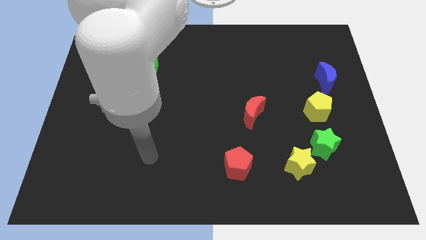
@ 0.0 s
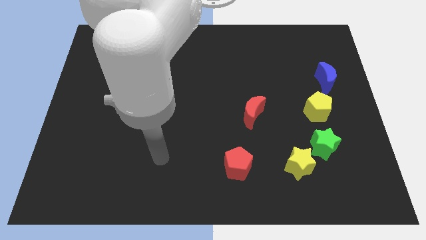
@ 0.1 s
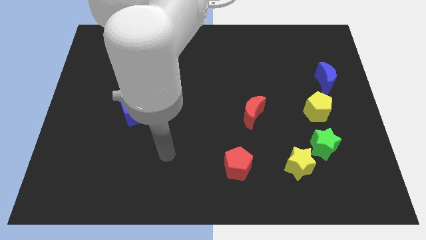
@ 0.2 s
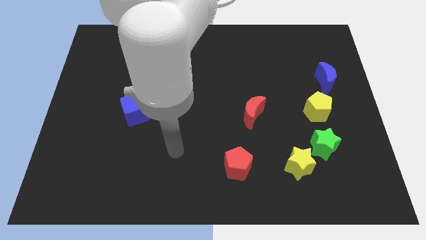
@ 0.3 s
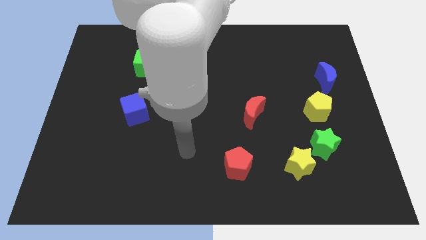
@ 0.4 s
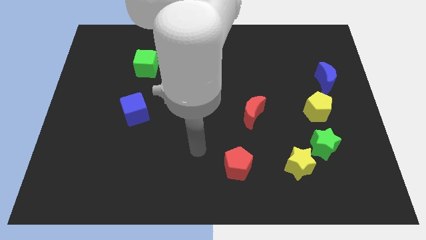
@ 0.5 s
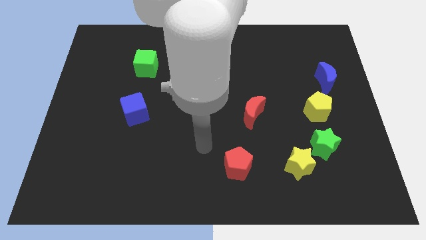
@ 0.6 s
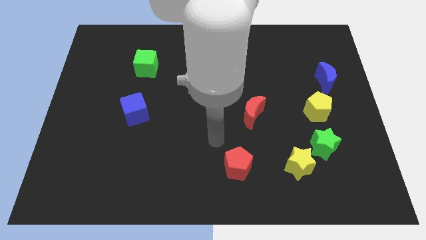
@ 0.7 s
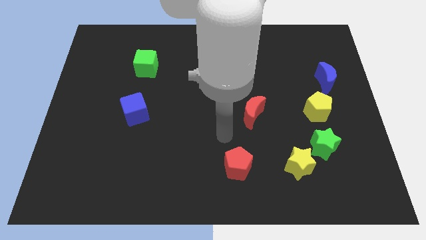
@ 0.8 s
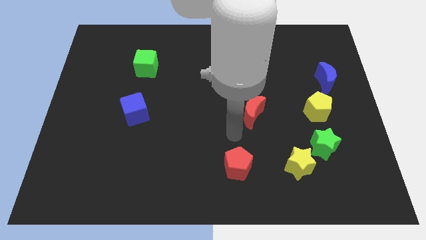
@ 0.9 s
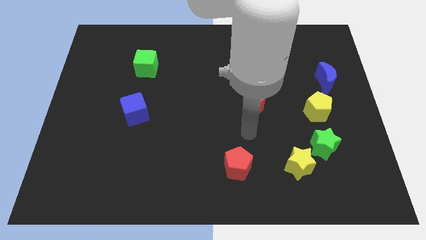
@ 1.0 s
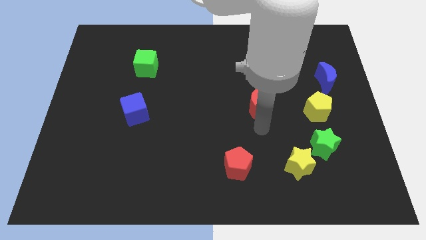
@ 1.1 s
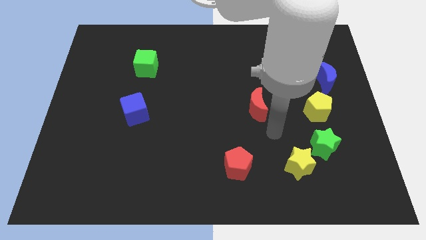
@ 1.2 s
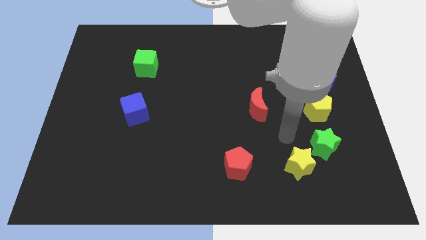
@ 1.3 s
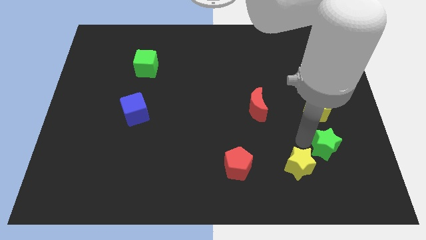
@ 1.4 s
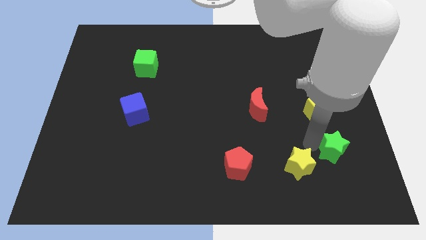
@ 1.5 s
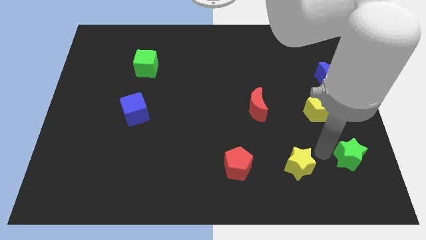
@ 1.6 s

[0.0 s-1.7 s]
move the yellow star away from the green star

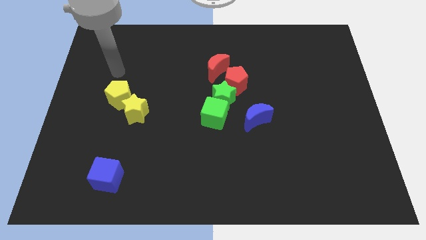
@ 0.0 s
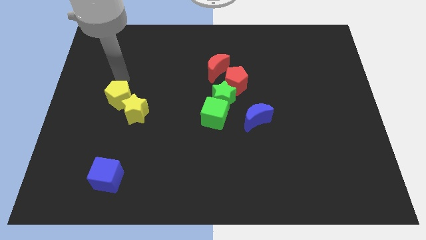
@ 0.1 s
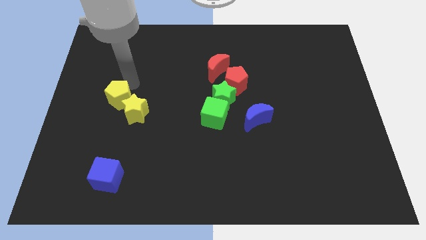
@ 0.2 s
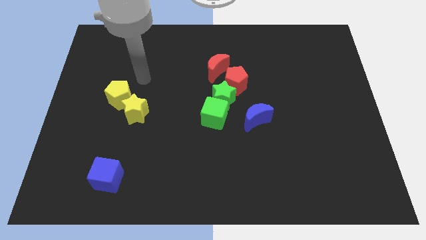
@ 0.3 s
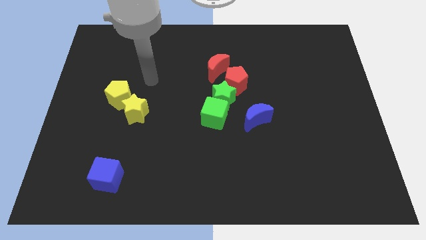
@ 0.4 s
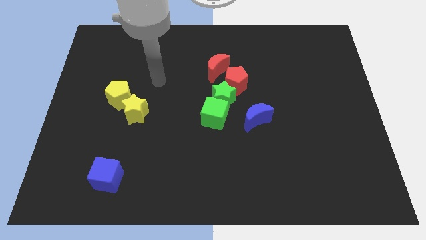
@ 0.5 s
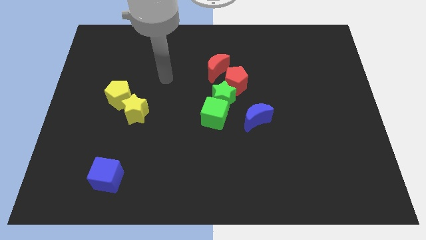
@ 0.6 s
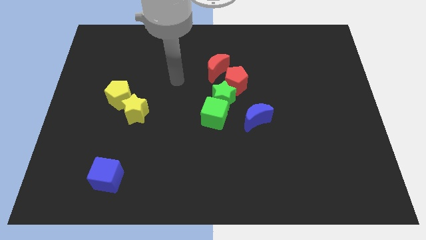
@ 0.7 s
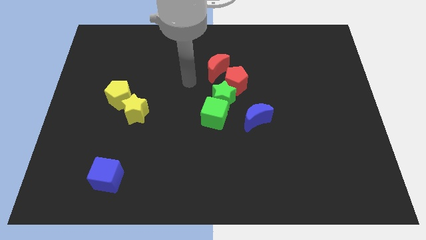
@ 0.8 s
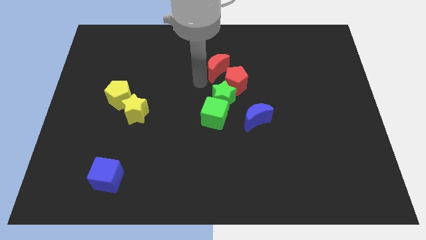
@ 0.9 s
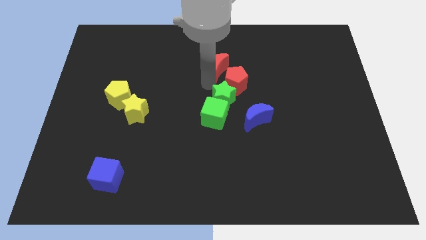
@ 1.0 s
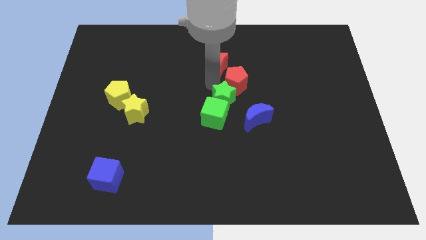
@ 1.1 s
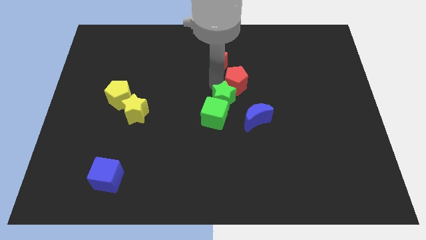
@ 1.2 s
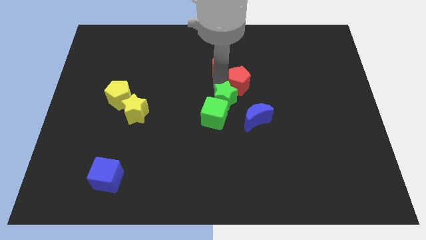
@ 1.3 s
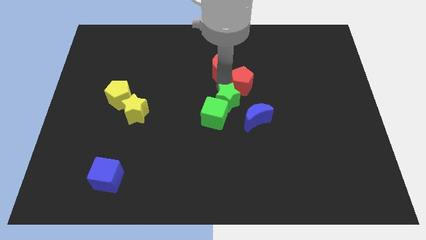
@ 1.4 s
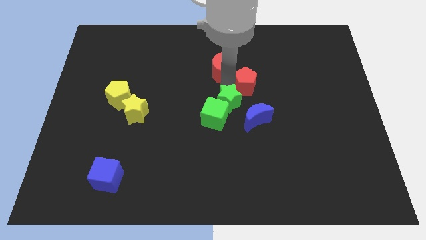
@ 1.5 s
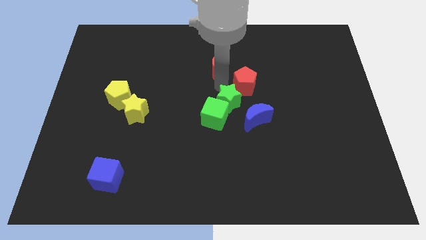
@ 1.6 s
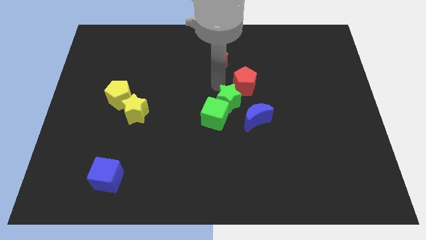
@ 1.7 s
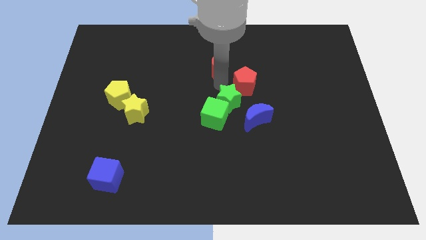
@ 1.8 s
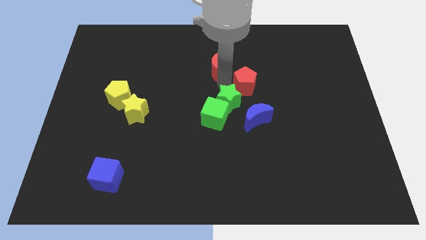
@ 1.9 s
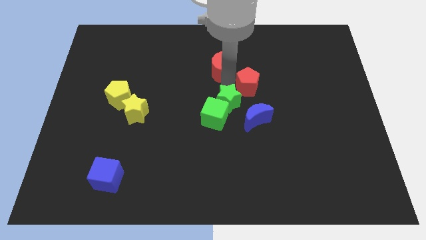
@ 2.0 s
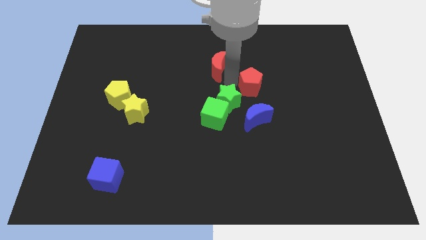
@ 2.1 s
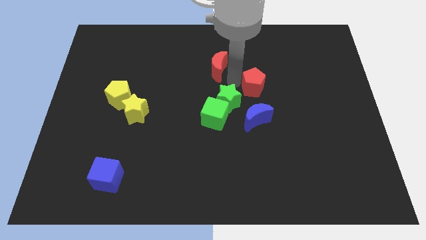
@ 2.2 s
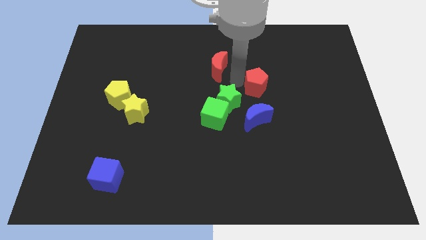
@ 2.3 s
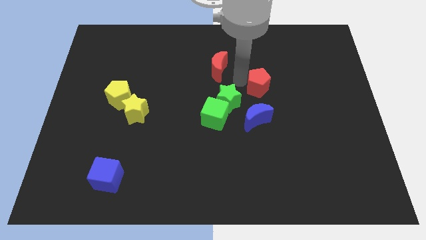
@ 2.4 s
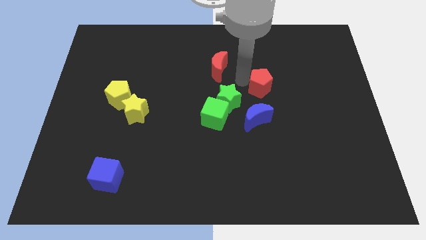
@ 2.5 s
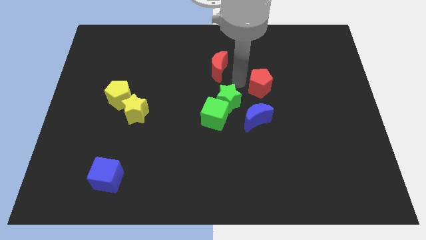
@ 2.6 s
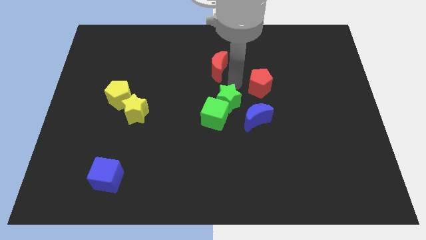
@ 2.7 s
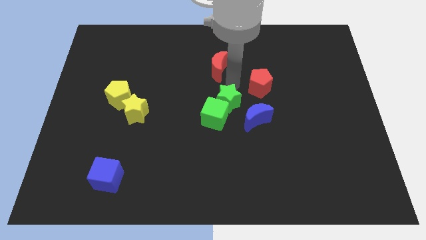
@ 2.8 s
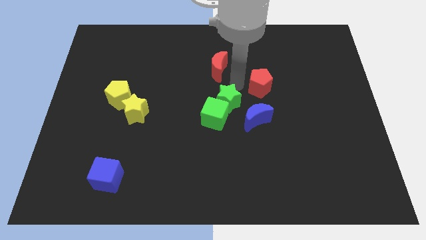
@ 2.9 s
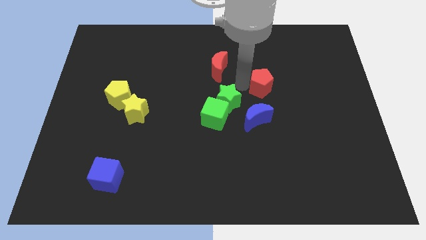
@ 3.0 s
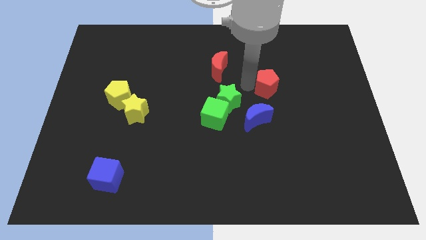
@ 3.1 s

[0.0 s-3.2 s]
separate the red pentagon from the green star and red moon

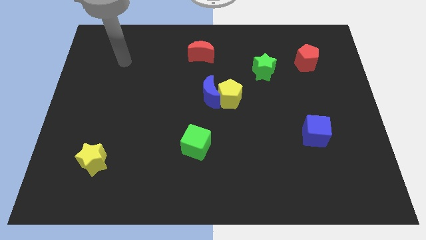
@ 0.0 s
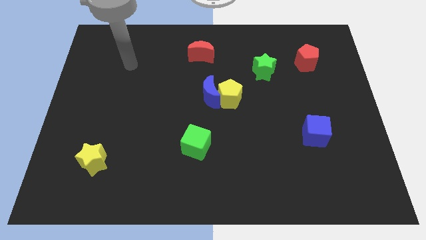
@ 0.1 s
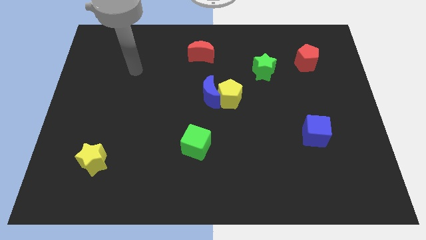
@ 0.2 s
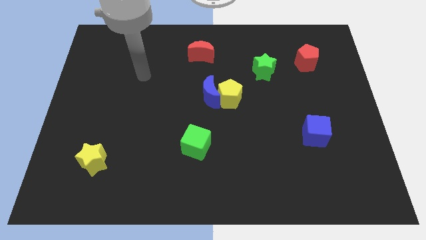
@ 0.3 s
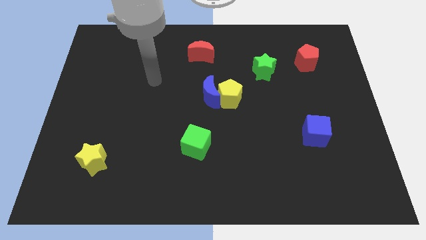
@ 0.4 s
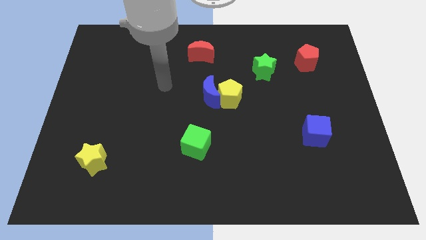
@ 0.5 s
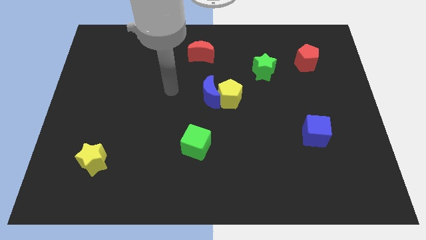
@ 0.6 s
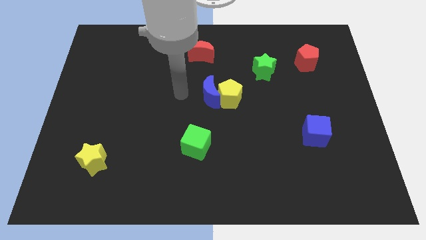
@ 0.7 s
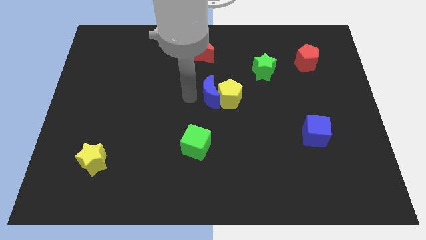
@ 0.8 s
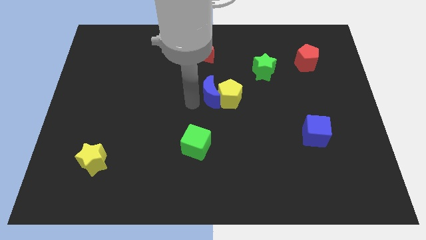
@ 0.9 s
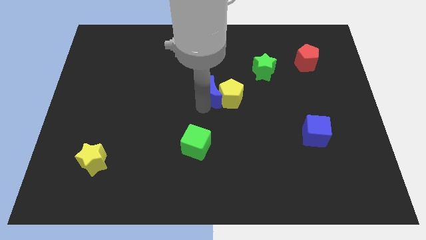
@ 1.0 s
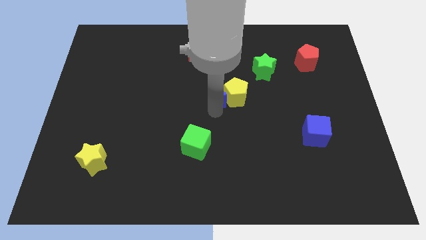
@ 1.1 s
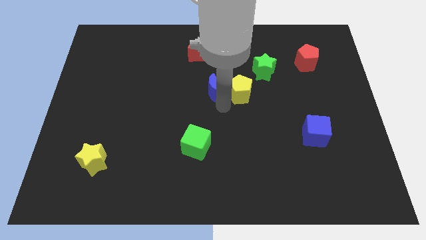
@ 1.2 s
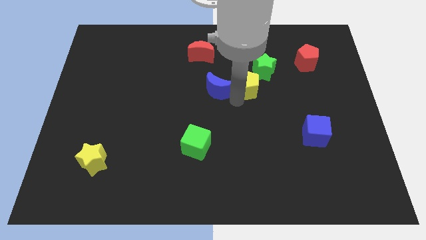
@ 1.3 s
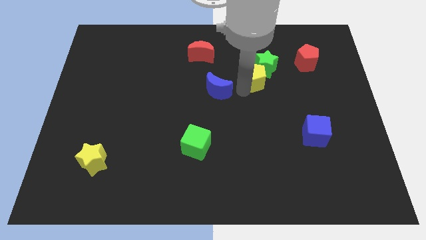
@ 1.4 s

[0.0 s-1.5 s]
separate the blue moon from the yellow pentagon

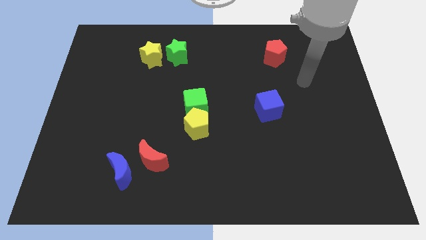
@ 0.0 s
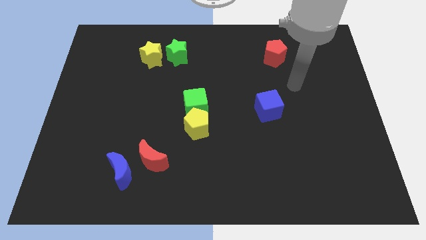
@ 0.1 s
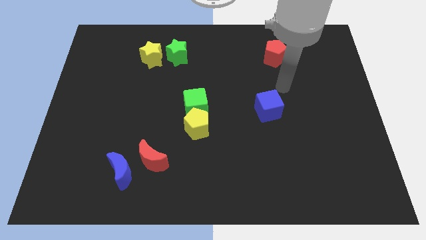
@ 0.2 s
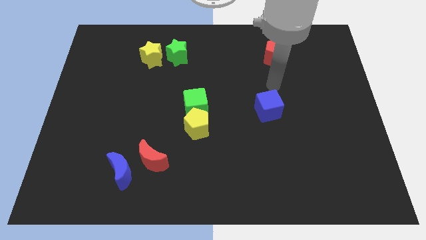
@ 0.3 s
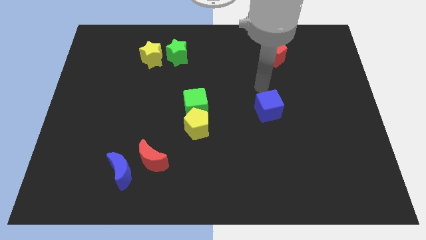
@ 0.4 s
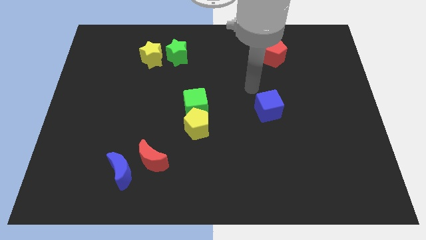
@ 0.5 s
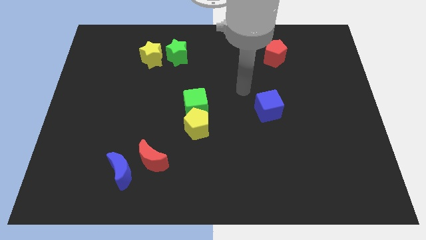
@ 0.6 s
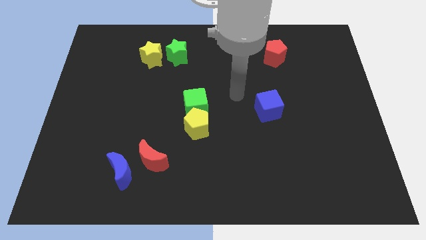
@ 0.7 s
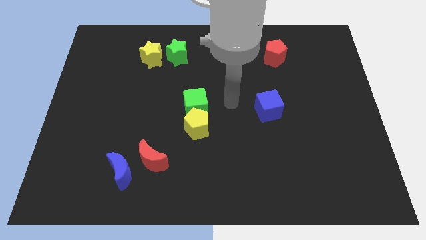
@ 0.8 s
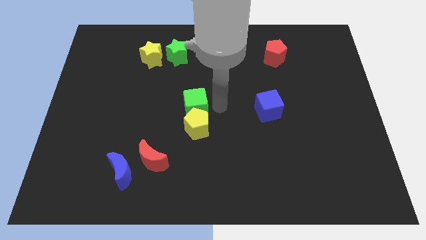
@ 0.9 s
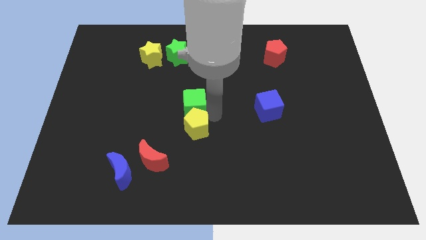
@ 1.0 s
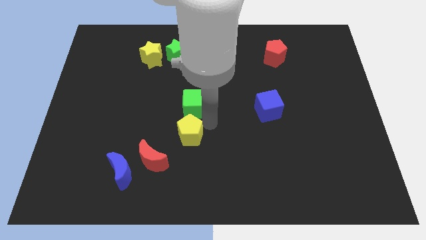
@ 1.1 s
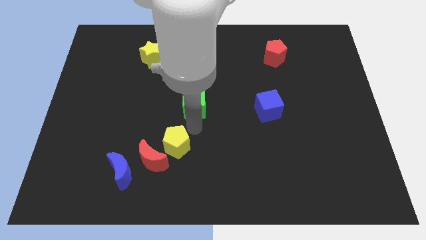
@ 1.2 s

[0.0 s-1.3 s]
move the green cube away from the yellow pentagon

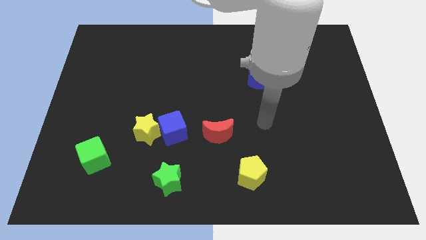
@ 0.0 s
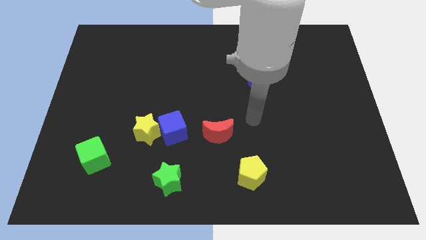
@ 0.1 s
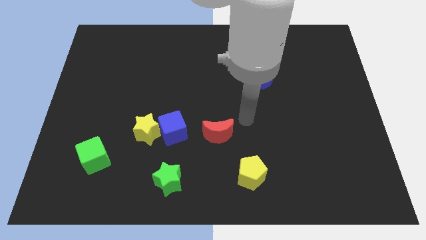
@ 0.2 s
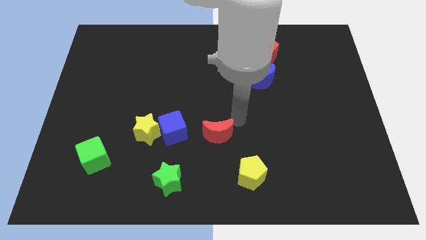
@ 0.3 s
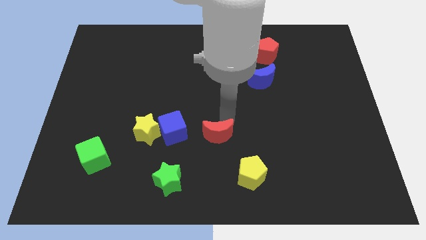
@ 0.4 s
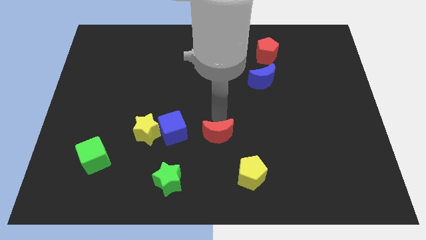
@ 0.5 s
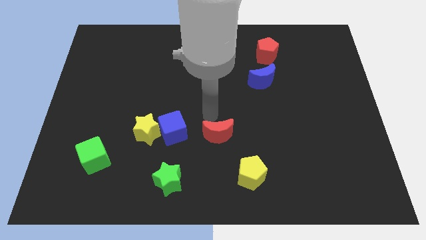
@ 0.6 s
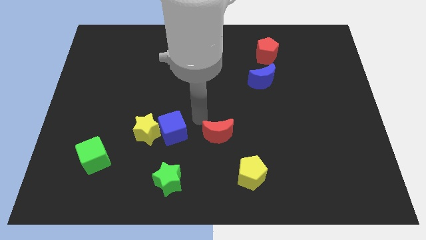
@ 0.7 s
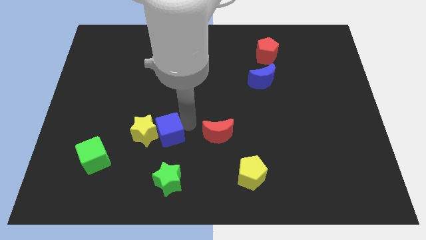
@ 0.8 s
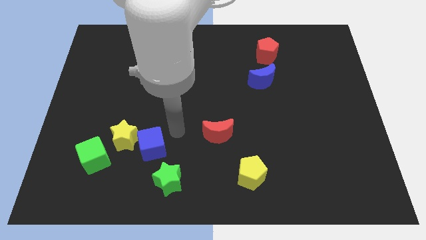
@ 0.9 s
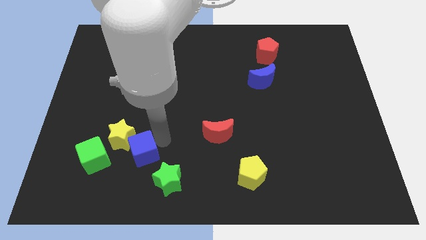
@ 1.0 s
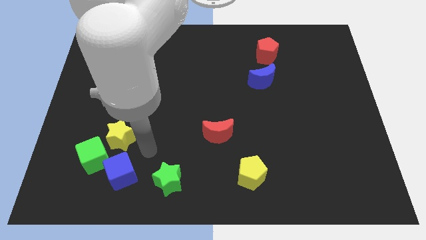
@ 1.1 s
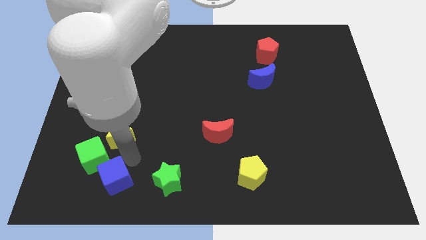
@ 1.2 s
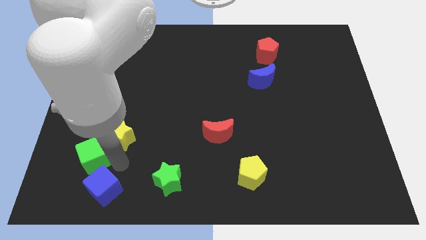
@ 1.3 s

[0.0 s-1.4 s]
pull the yellow star apart from the blue cube
